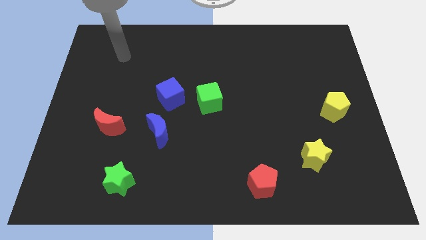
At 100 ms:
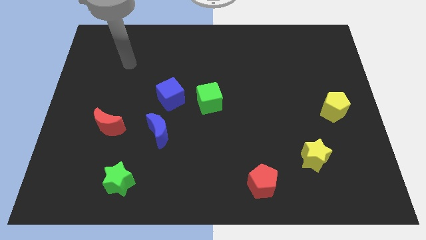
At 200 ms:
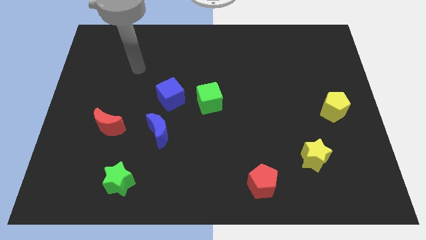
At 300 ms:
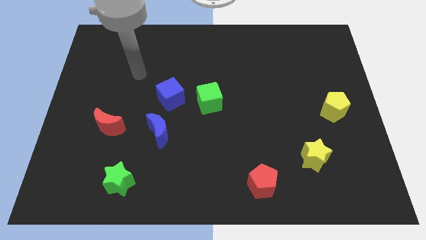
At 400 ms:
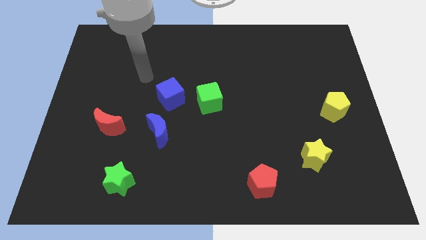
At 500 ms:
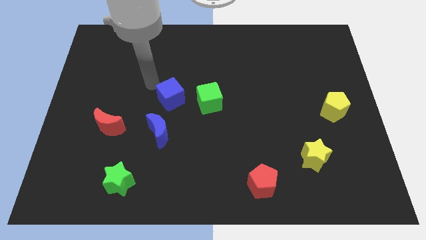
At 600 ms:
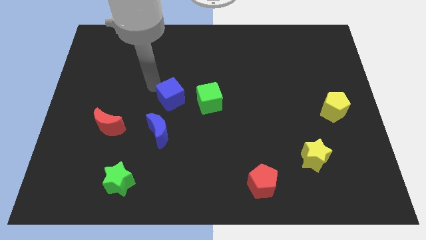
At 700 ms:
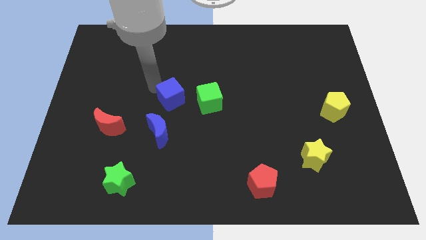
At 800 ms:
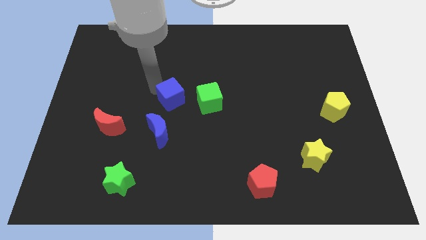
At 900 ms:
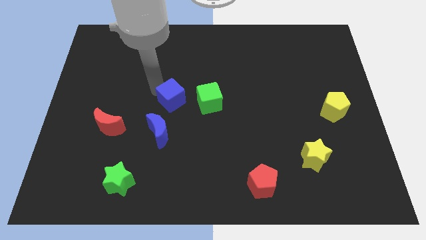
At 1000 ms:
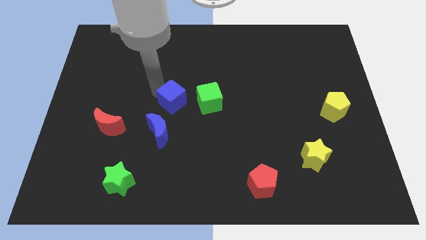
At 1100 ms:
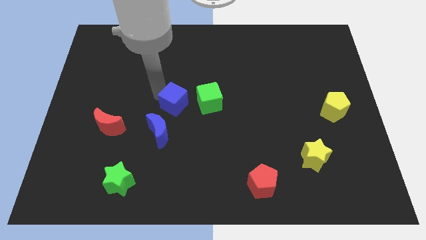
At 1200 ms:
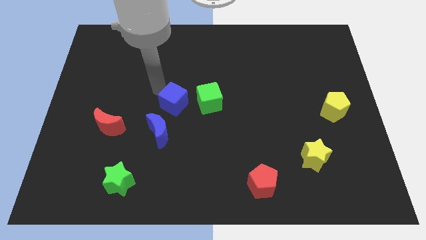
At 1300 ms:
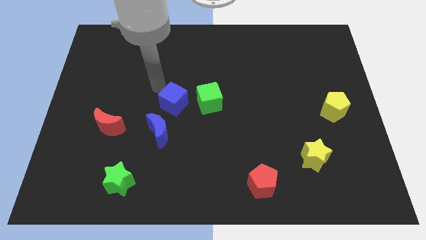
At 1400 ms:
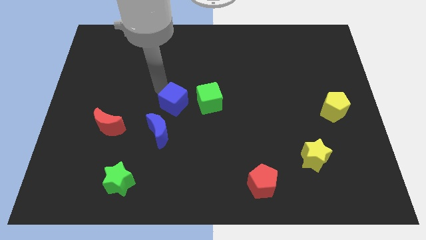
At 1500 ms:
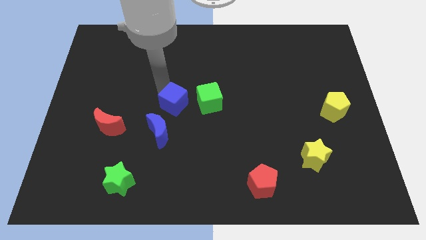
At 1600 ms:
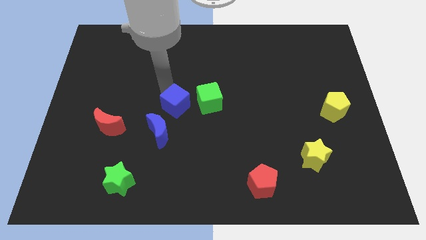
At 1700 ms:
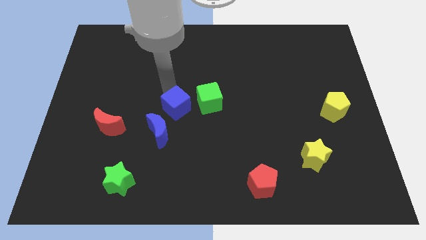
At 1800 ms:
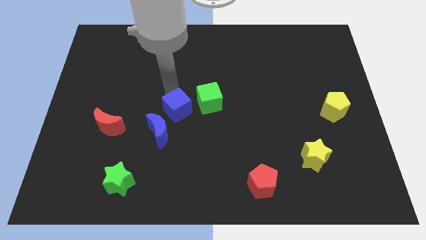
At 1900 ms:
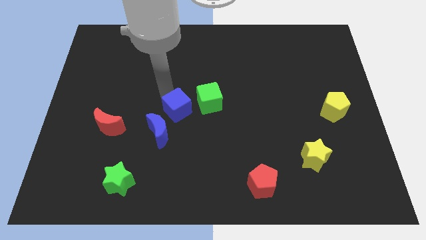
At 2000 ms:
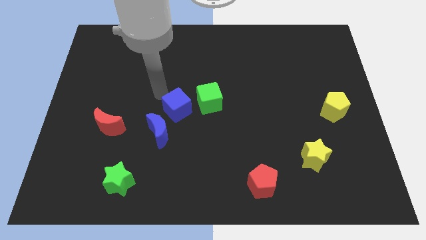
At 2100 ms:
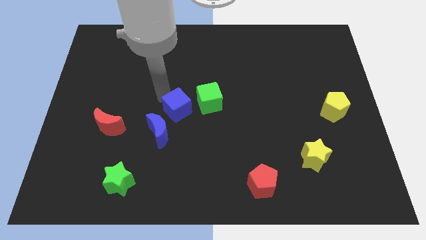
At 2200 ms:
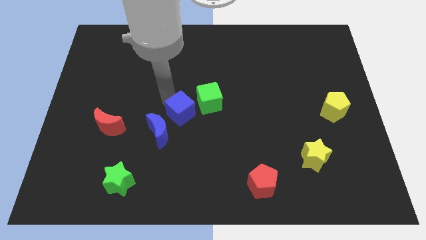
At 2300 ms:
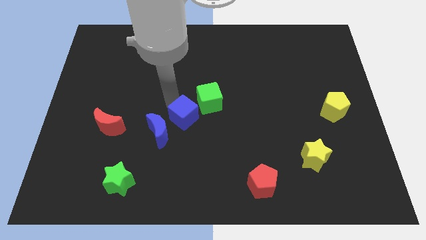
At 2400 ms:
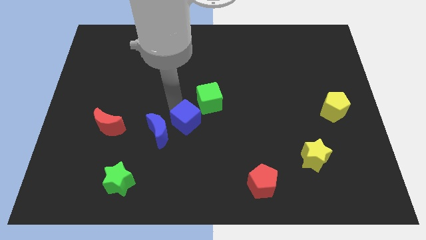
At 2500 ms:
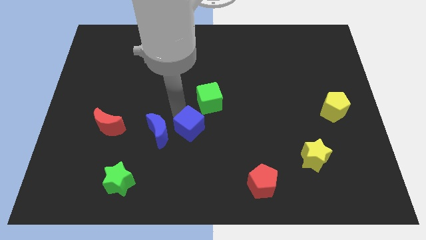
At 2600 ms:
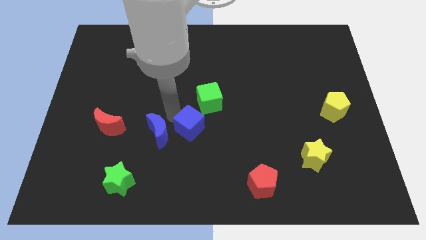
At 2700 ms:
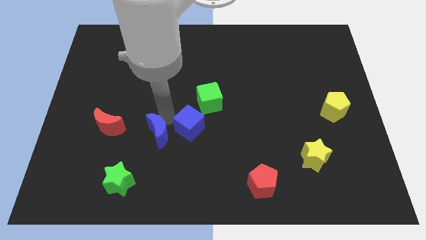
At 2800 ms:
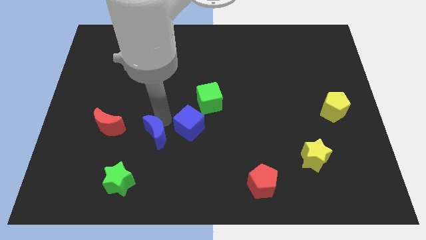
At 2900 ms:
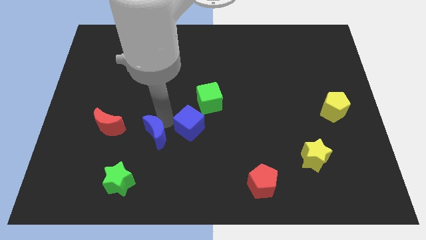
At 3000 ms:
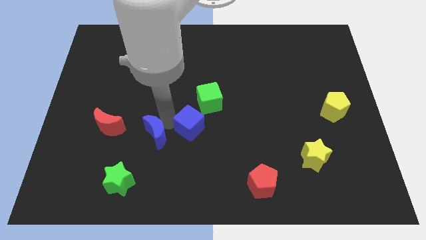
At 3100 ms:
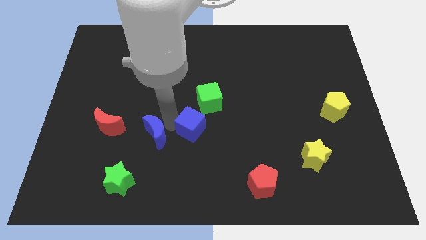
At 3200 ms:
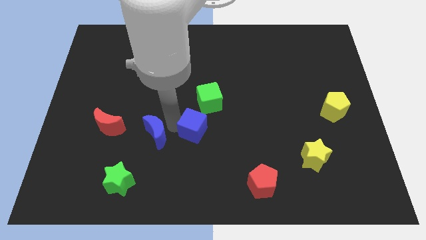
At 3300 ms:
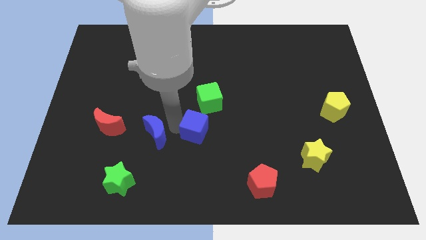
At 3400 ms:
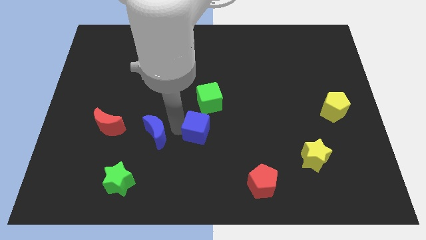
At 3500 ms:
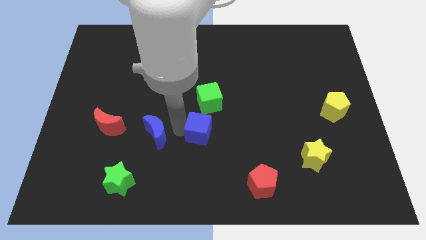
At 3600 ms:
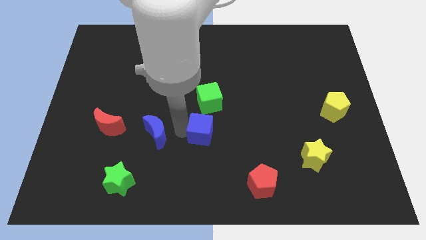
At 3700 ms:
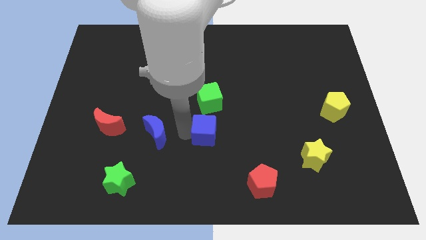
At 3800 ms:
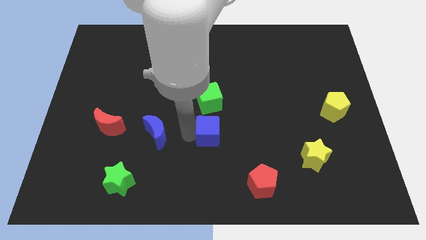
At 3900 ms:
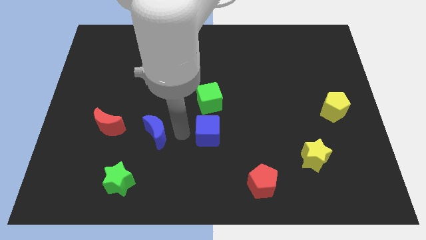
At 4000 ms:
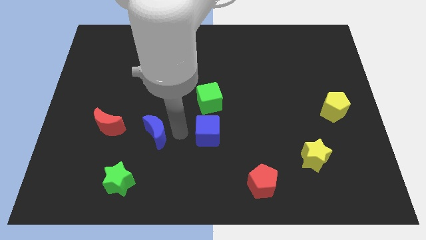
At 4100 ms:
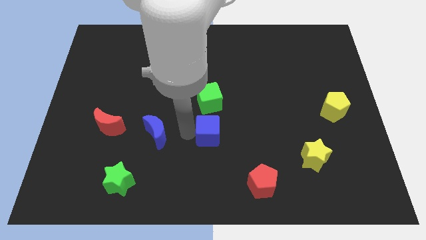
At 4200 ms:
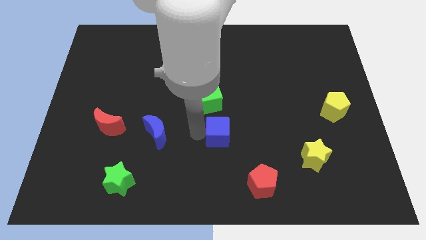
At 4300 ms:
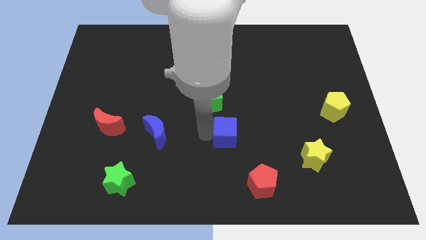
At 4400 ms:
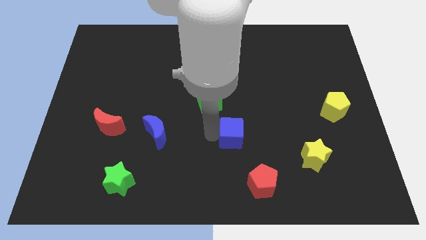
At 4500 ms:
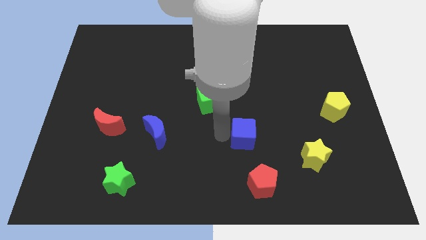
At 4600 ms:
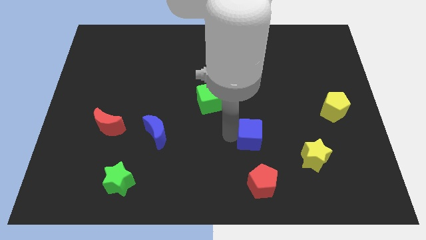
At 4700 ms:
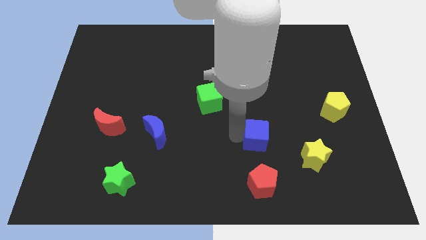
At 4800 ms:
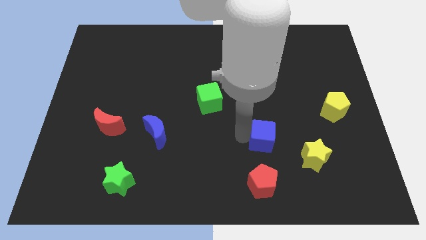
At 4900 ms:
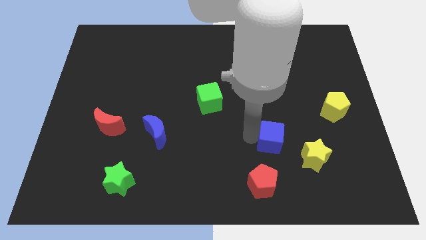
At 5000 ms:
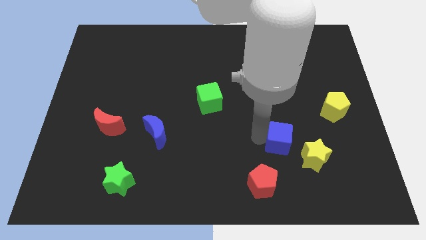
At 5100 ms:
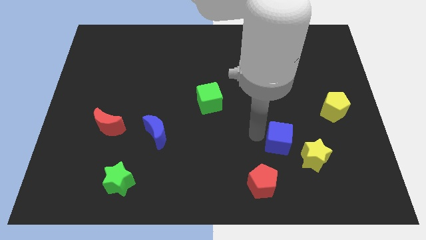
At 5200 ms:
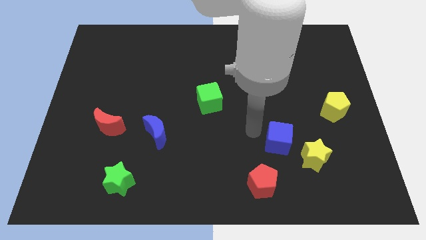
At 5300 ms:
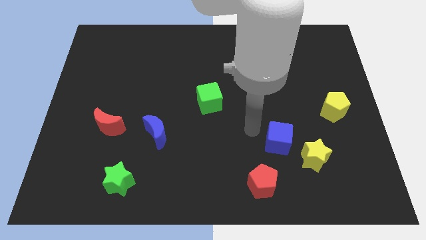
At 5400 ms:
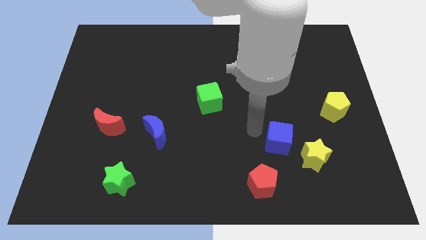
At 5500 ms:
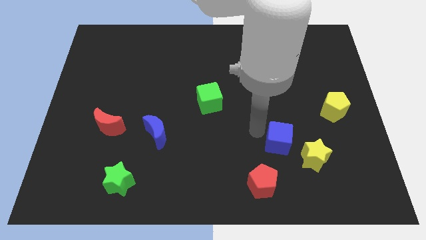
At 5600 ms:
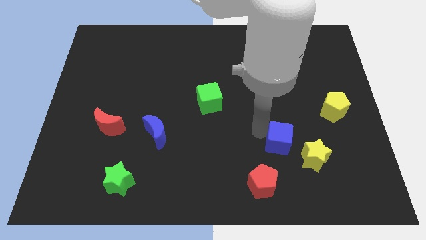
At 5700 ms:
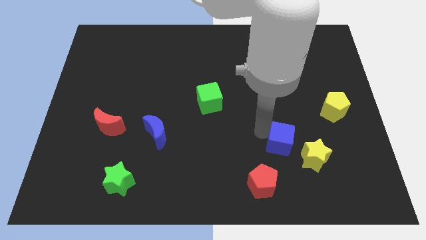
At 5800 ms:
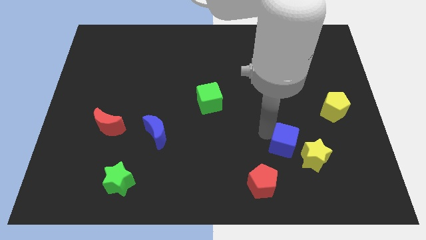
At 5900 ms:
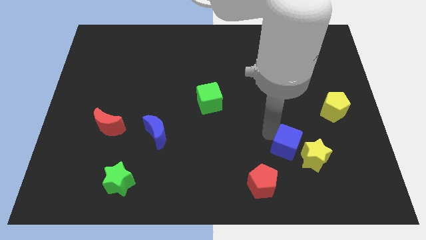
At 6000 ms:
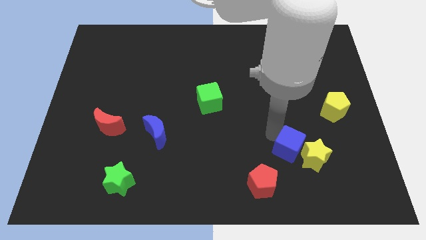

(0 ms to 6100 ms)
put the blue cube close to the yellow star

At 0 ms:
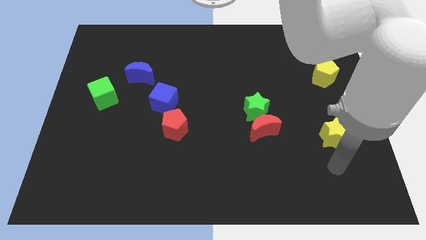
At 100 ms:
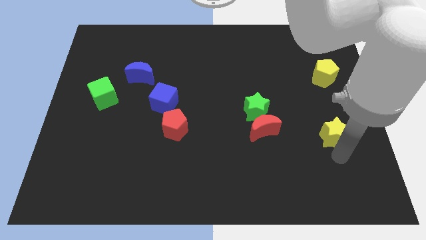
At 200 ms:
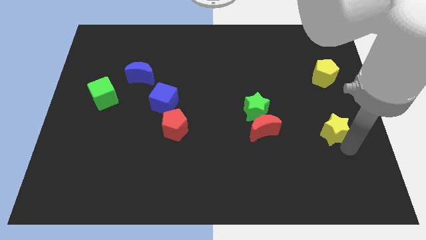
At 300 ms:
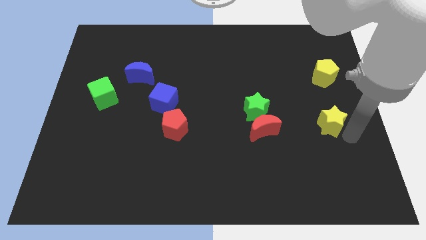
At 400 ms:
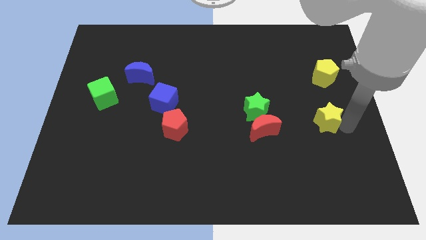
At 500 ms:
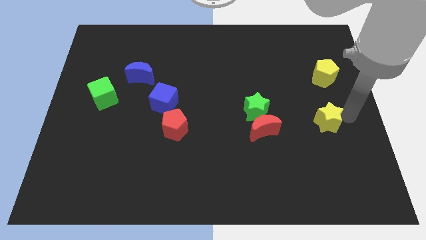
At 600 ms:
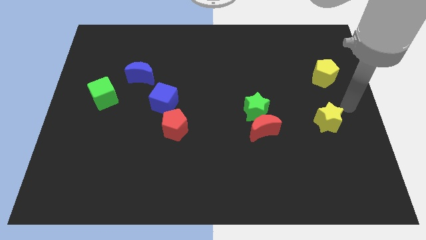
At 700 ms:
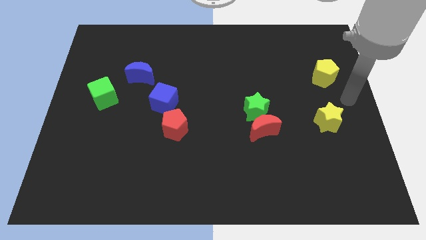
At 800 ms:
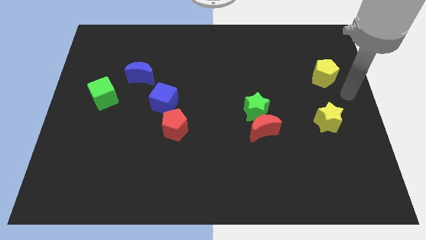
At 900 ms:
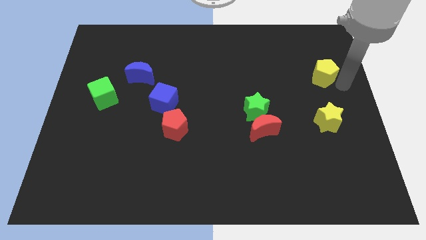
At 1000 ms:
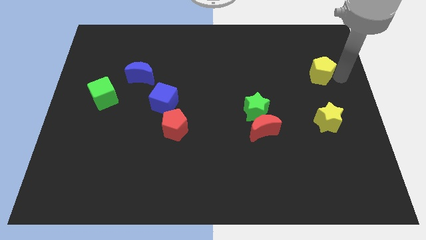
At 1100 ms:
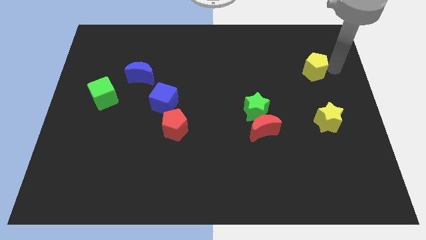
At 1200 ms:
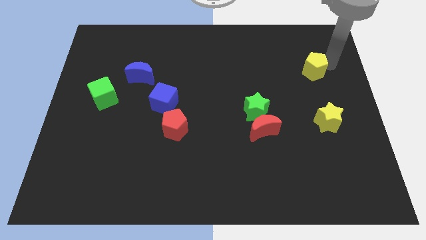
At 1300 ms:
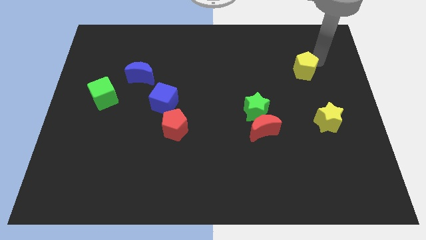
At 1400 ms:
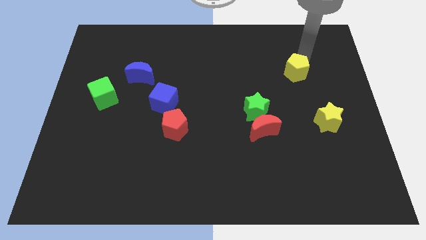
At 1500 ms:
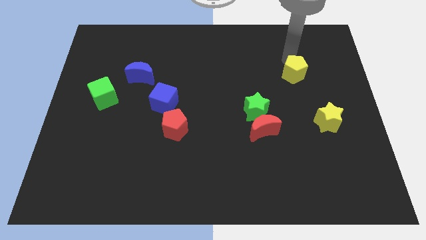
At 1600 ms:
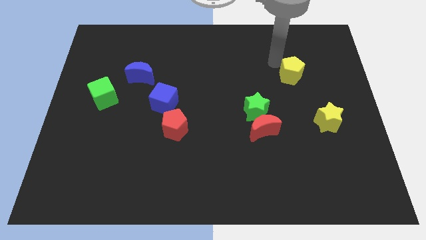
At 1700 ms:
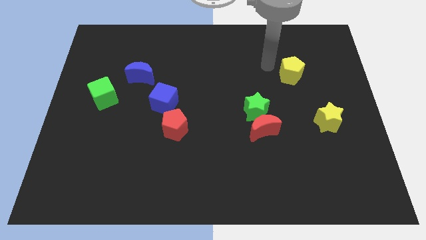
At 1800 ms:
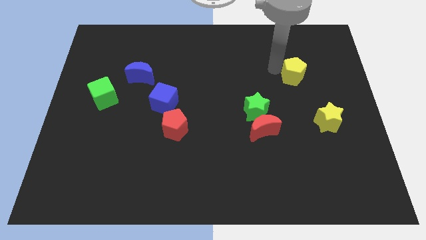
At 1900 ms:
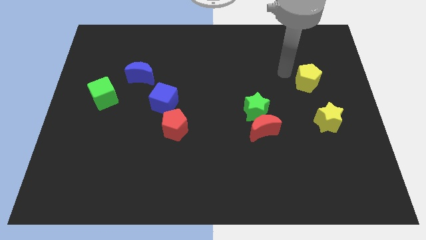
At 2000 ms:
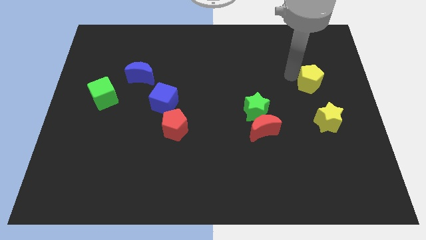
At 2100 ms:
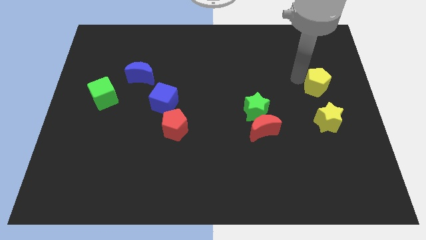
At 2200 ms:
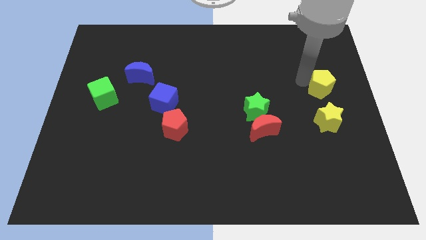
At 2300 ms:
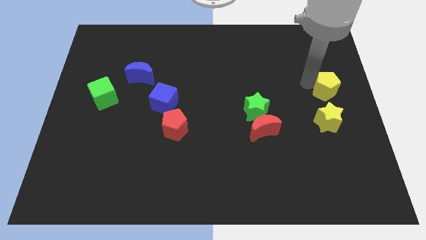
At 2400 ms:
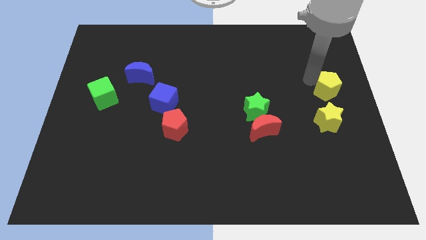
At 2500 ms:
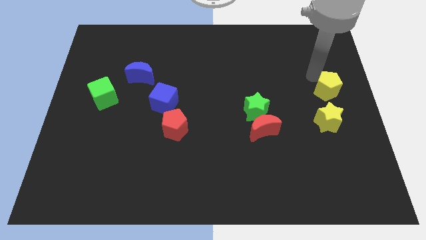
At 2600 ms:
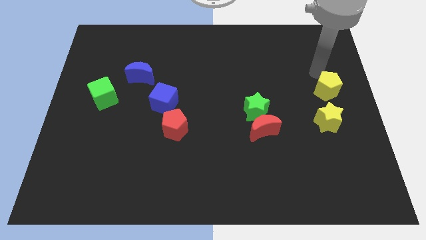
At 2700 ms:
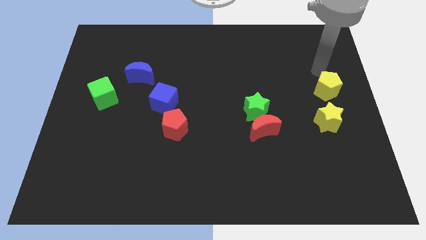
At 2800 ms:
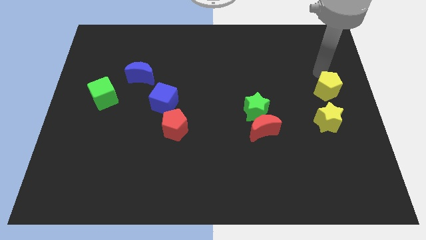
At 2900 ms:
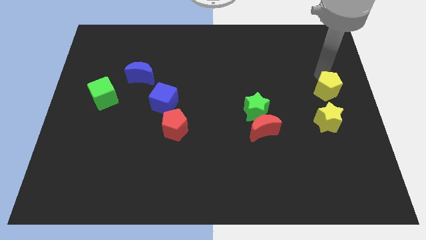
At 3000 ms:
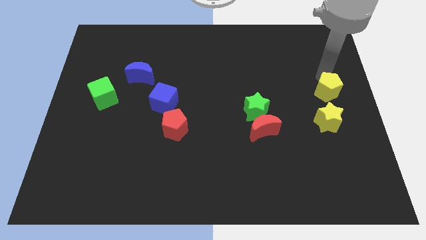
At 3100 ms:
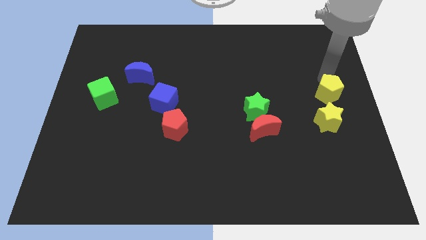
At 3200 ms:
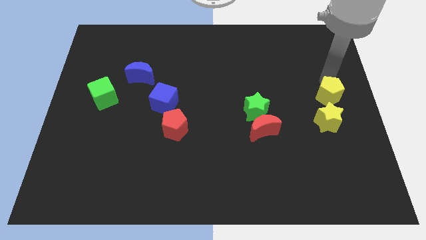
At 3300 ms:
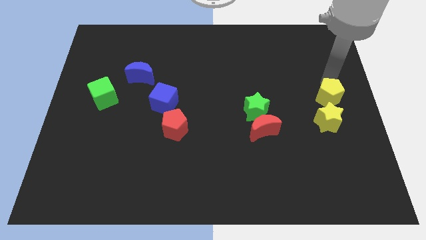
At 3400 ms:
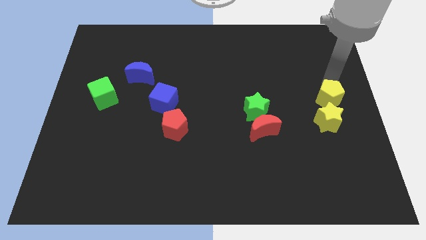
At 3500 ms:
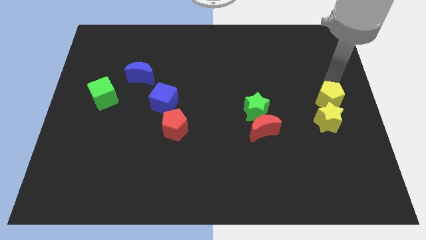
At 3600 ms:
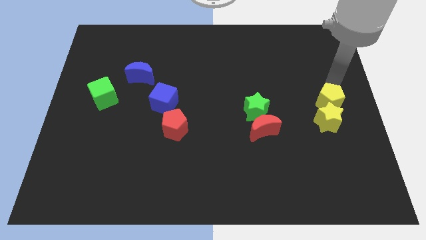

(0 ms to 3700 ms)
slide the yellow pentagon close to the yellow star
